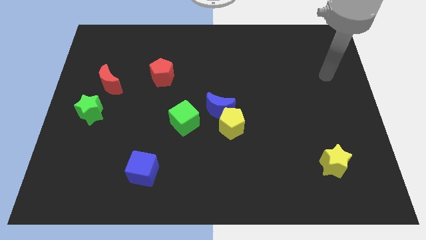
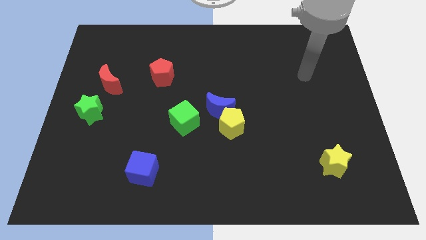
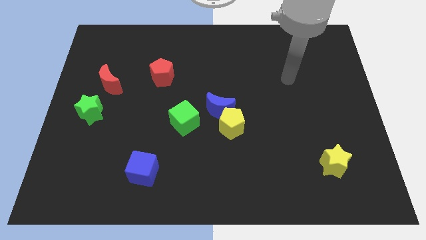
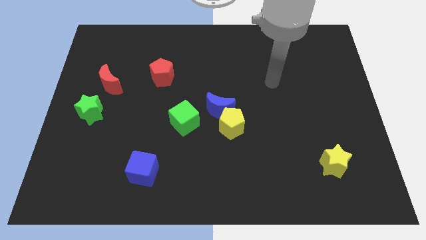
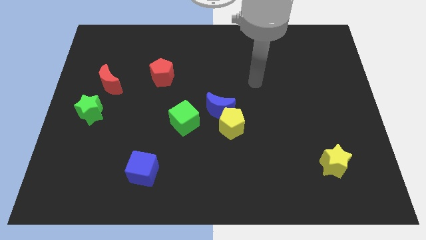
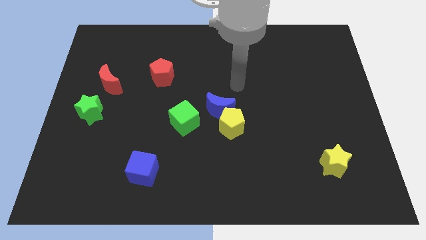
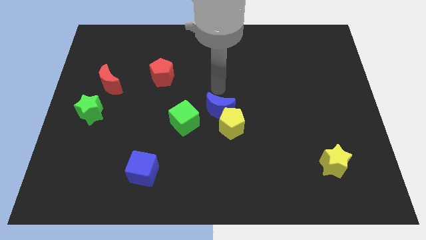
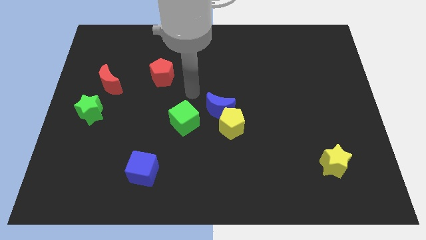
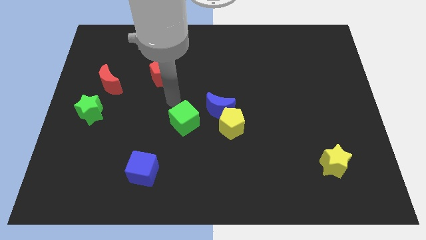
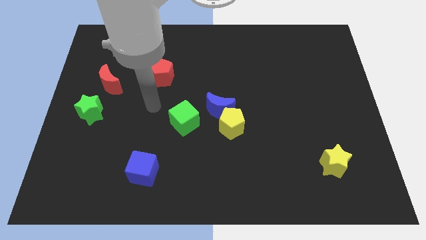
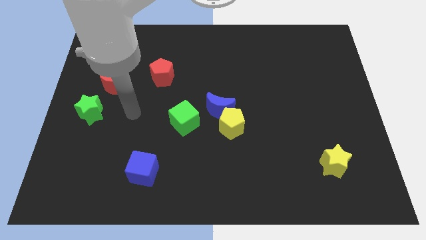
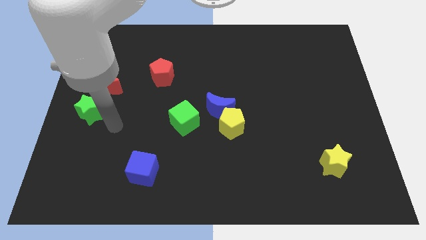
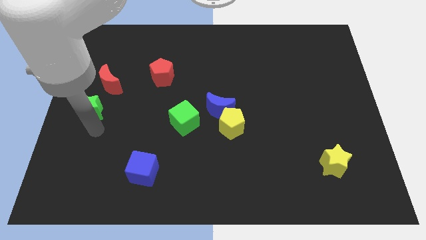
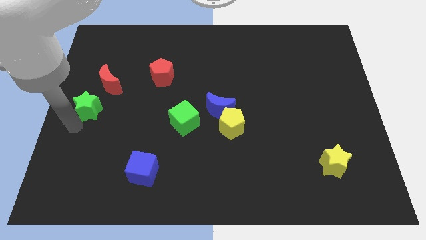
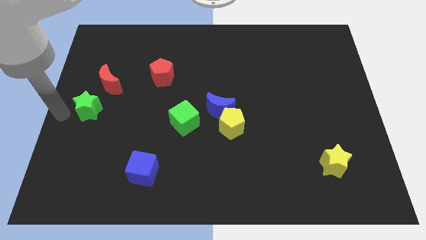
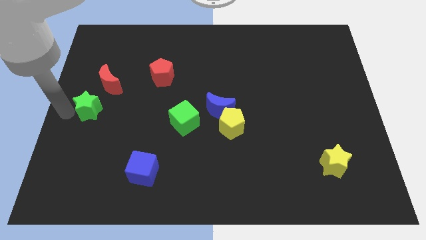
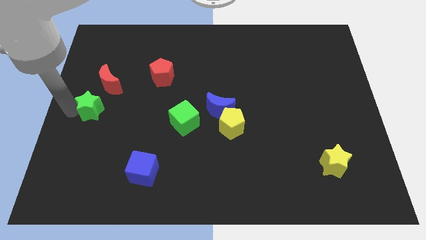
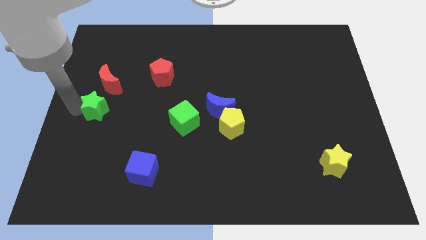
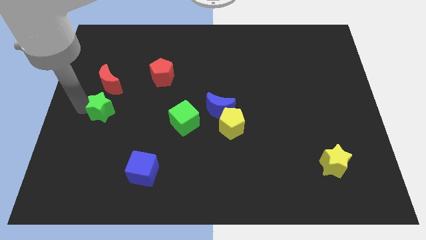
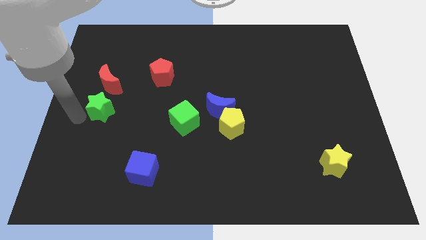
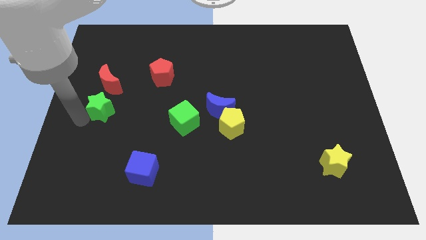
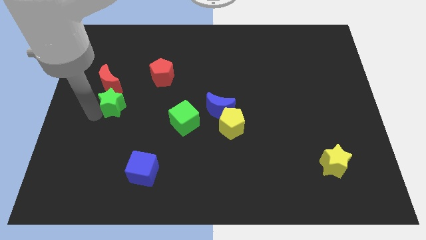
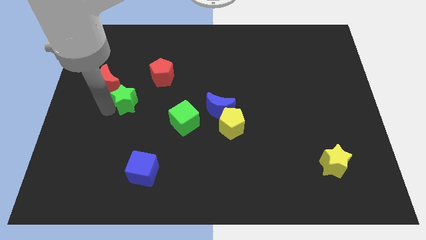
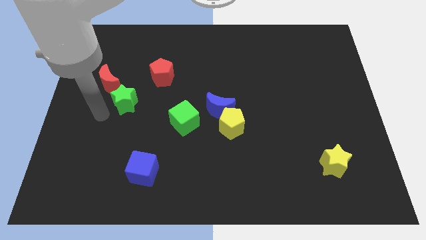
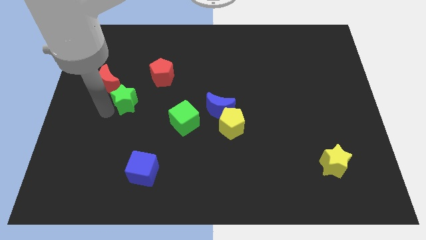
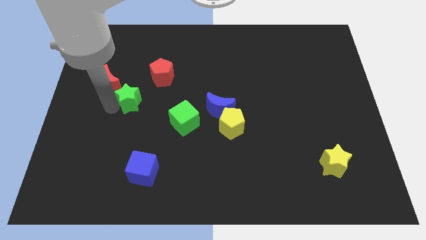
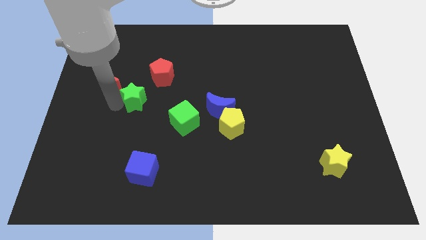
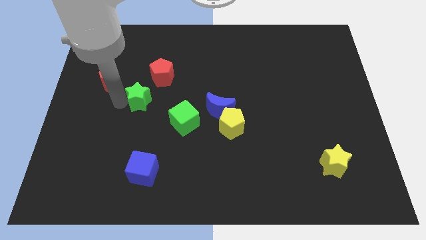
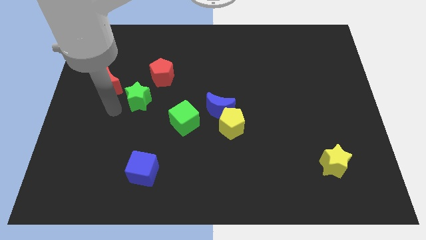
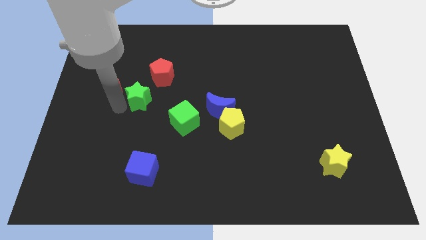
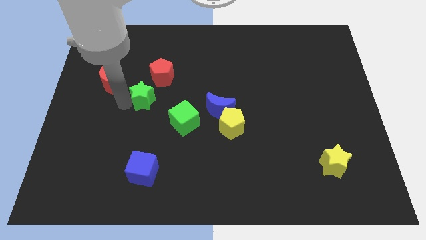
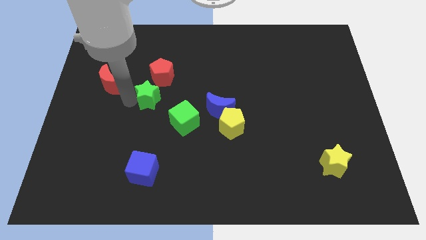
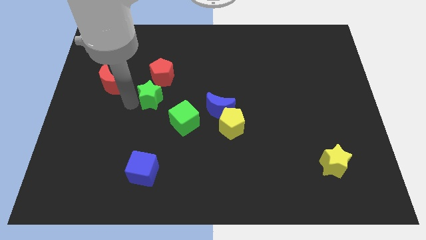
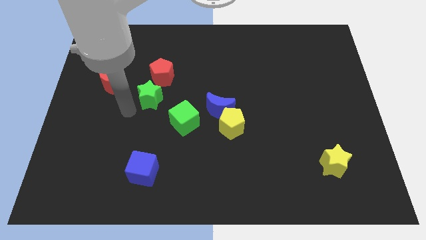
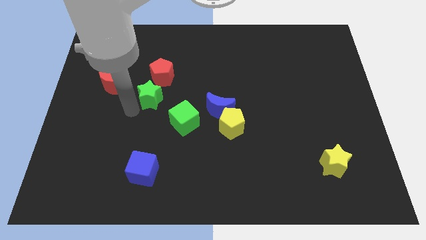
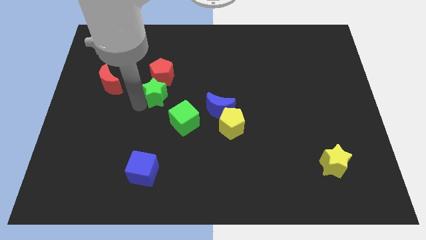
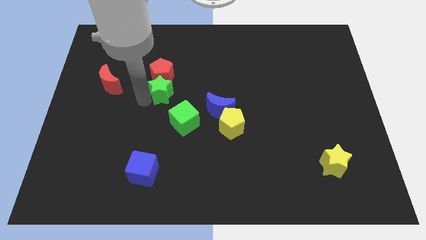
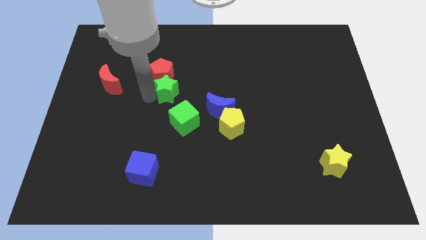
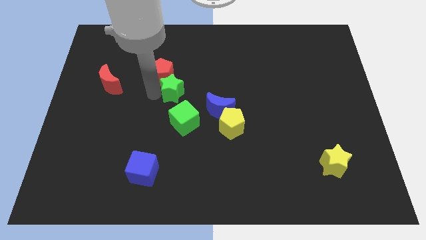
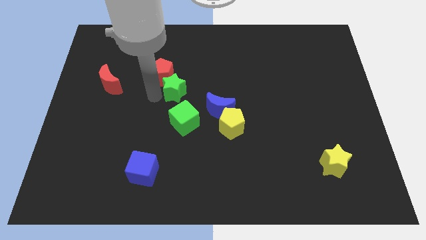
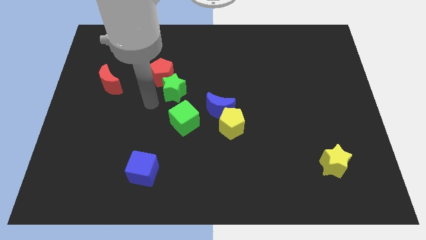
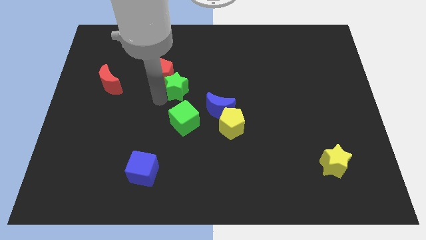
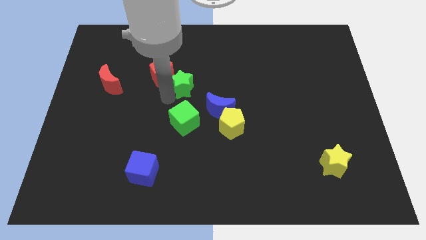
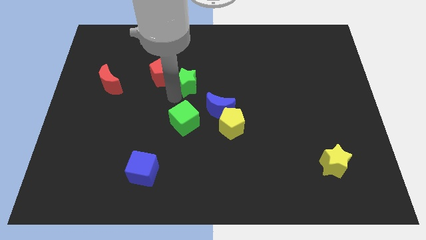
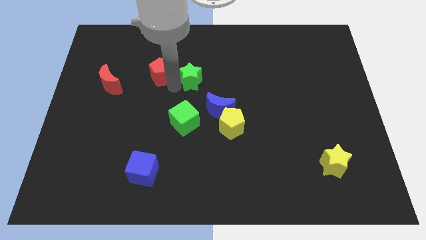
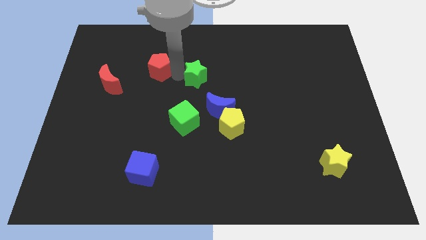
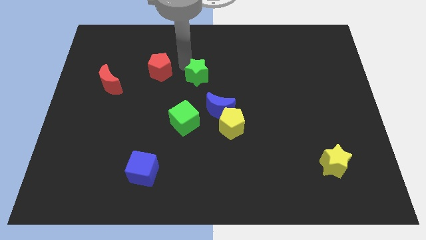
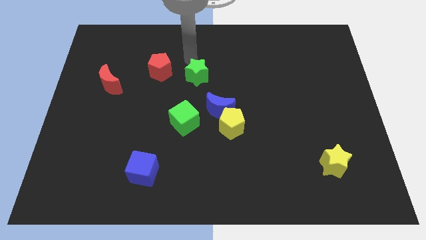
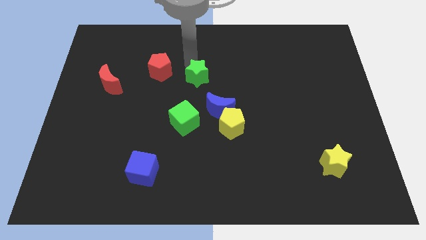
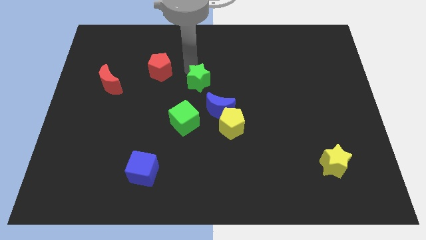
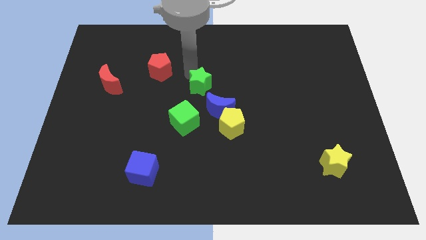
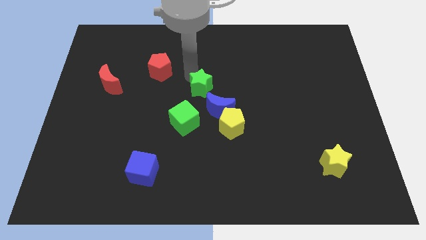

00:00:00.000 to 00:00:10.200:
slide the green star to the top right side of the green cube

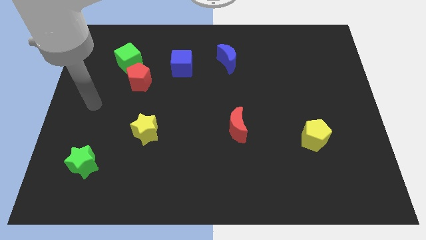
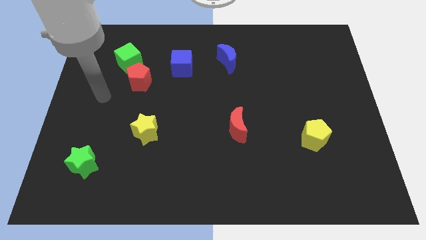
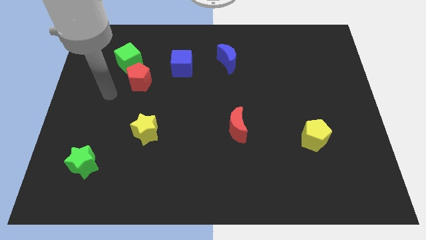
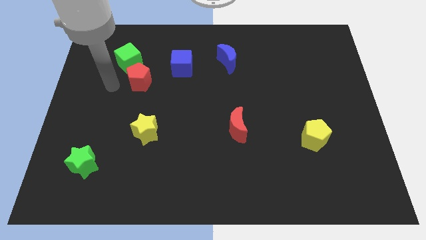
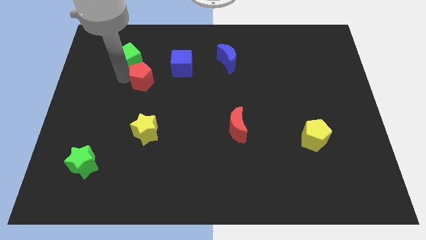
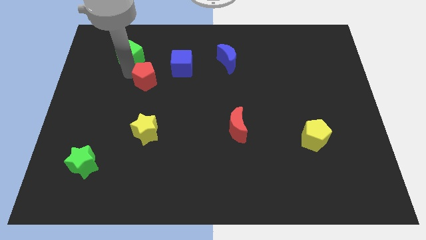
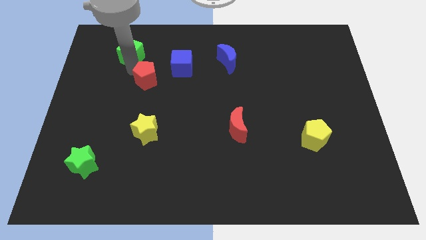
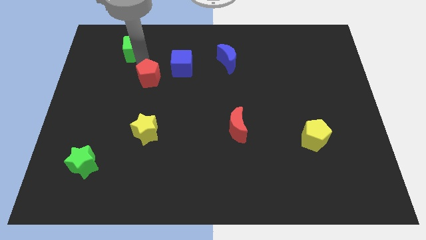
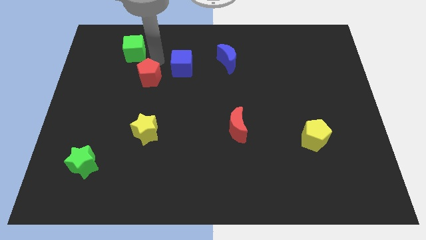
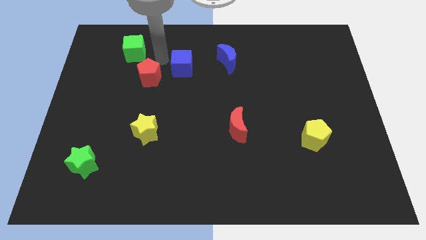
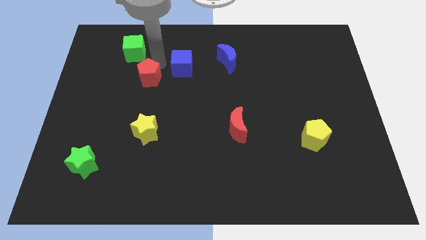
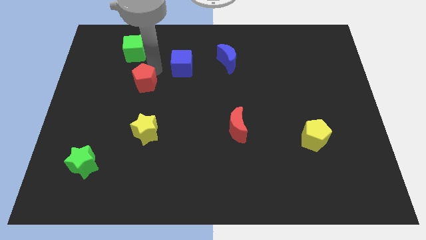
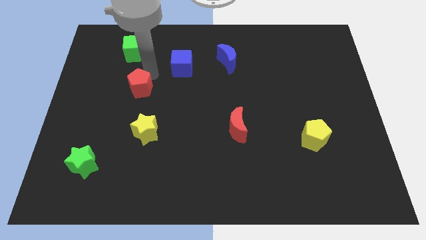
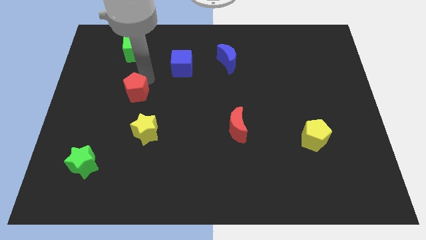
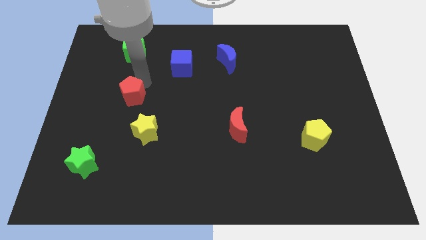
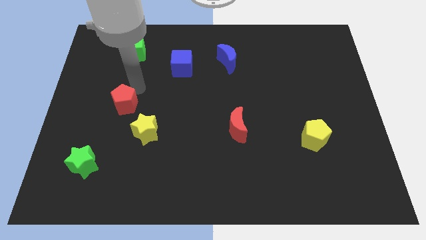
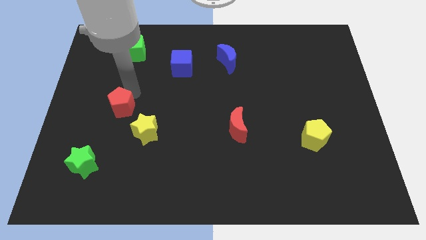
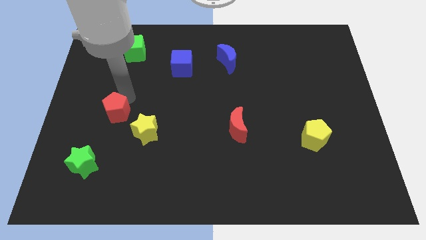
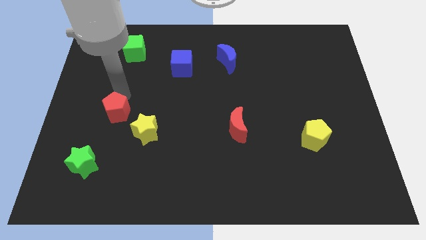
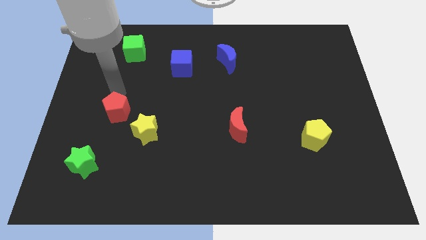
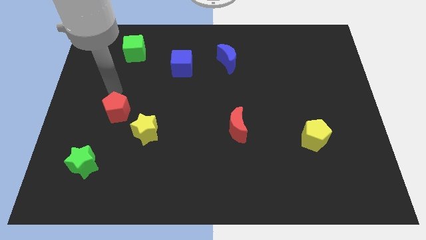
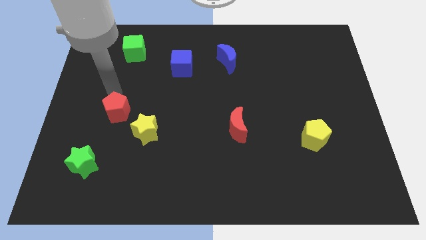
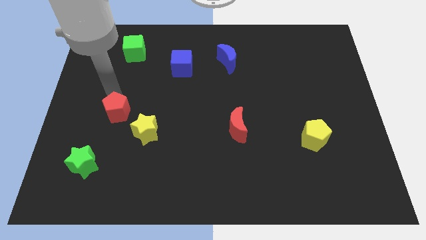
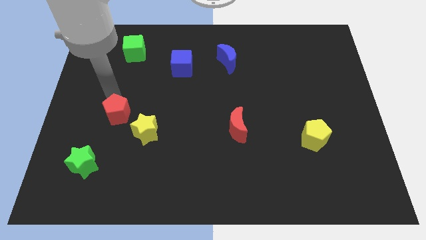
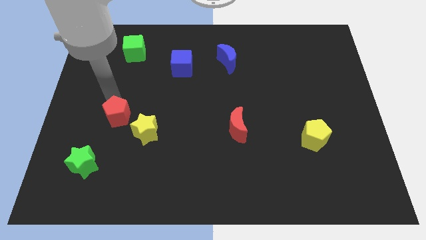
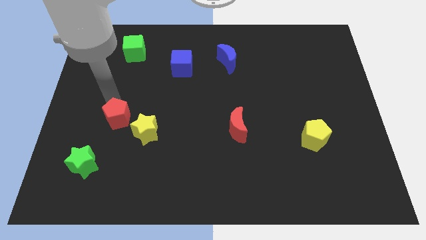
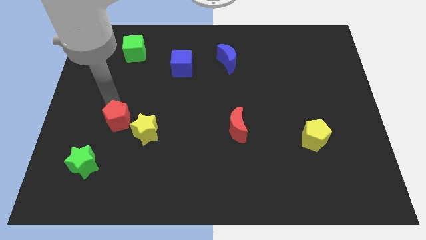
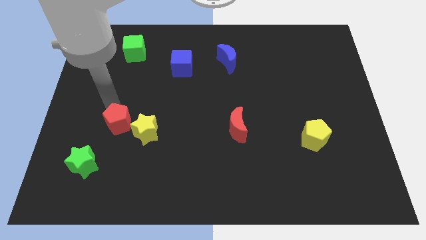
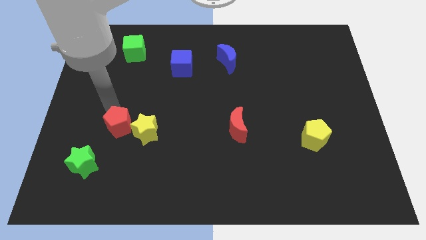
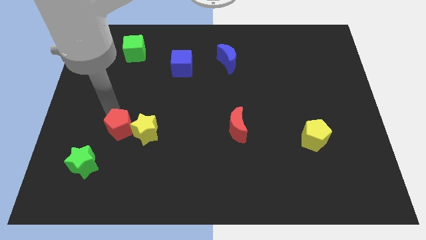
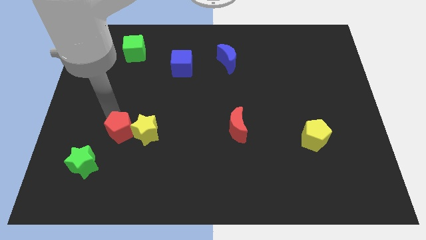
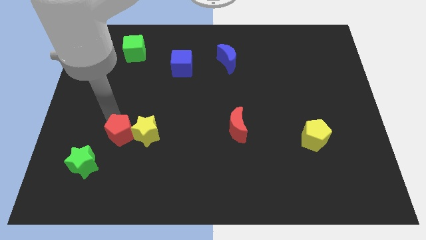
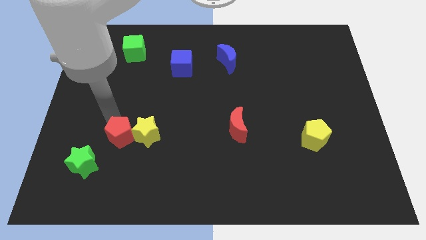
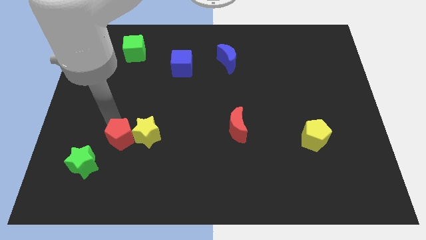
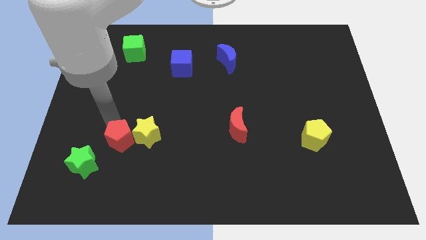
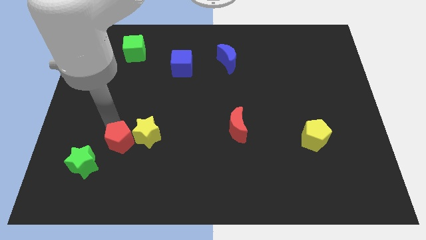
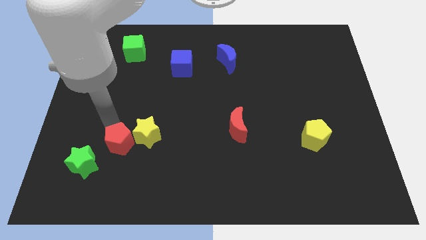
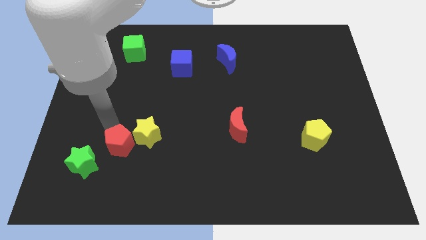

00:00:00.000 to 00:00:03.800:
push the red pentagon to the right side of the green star
